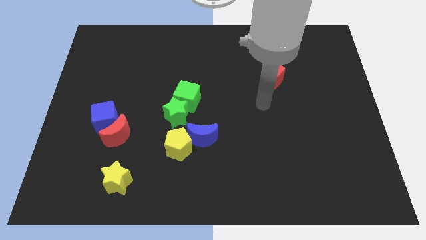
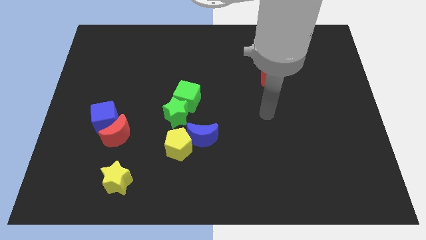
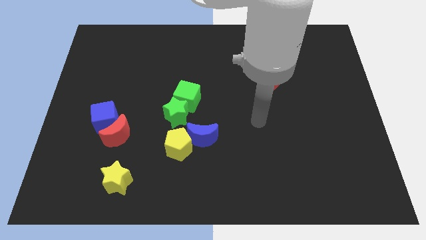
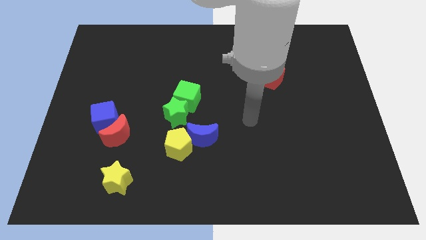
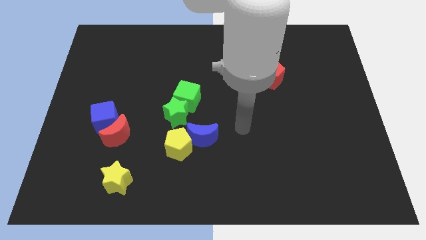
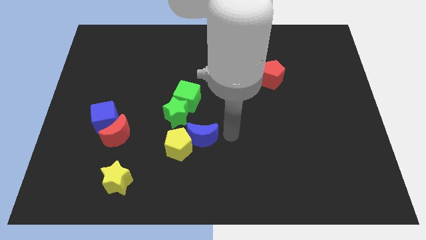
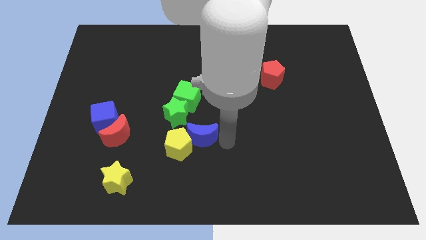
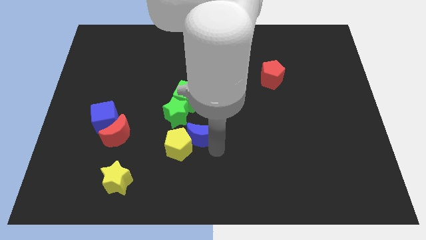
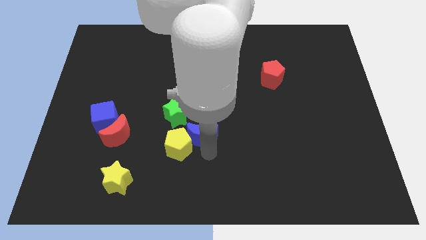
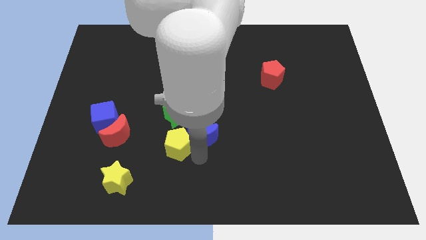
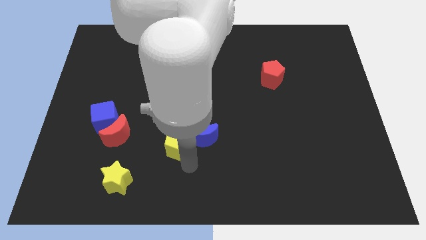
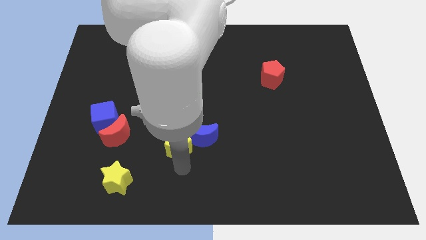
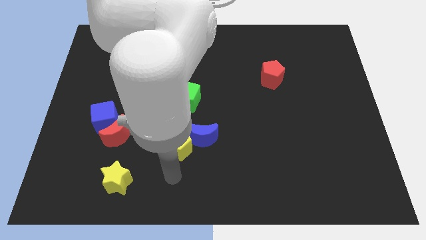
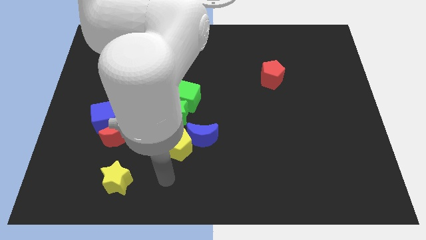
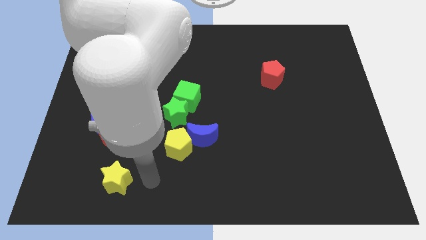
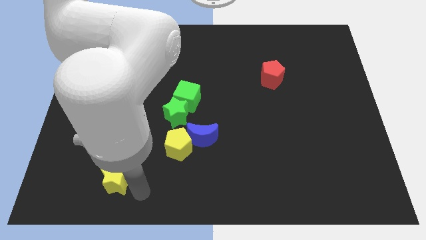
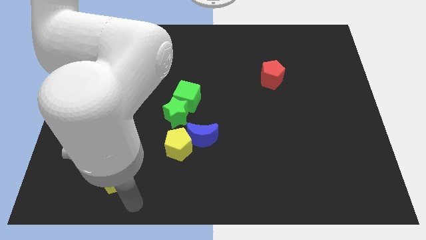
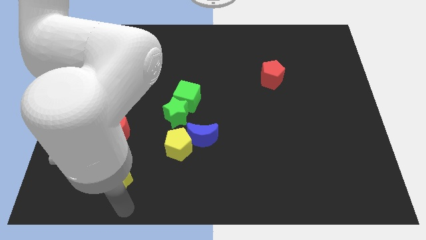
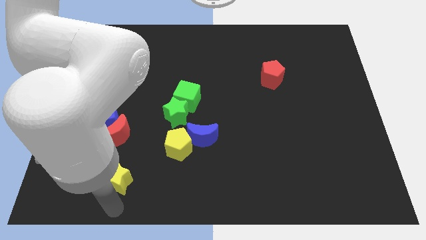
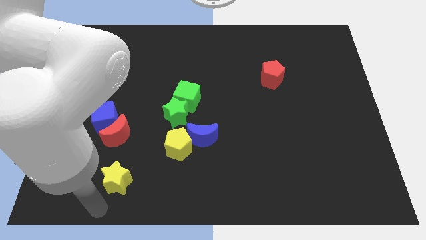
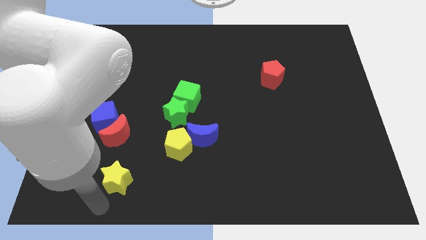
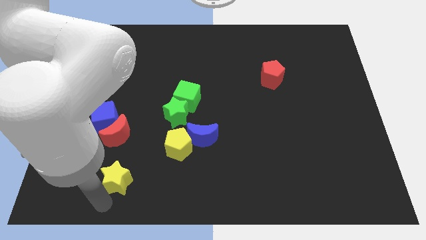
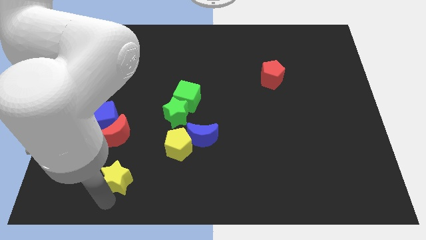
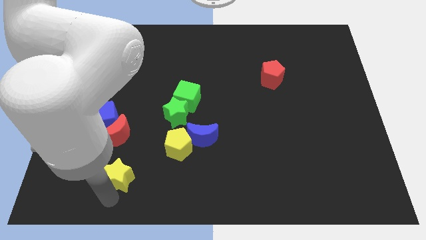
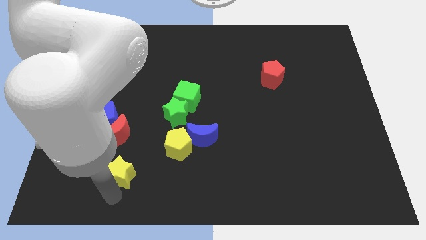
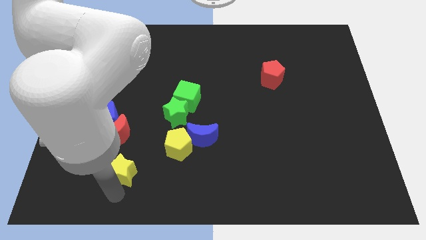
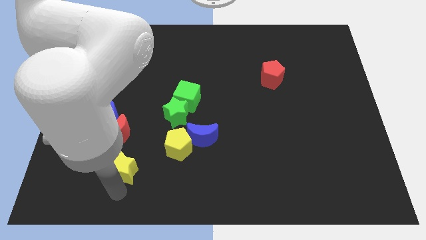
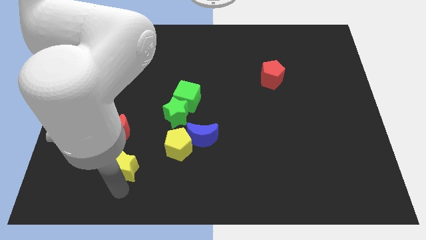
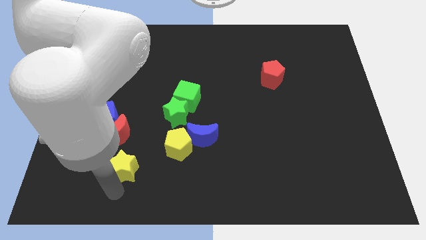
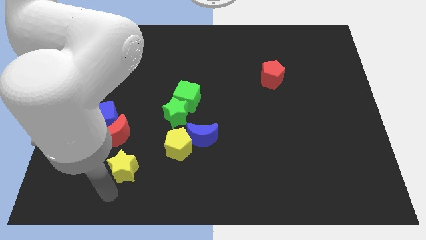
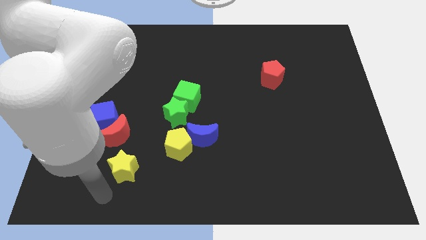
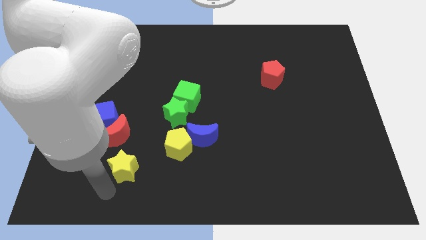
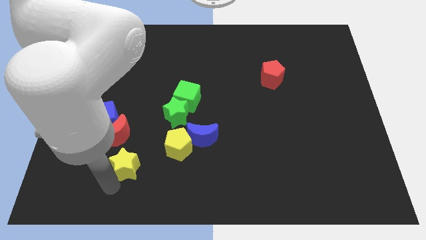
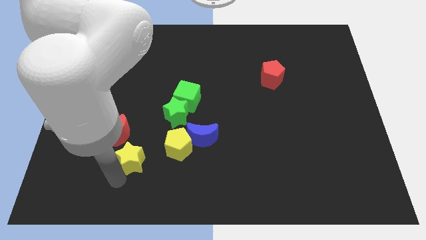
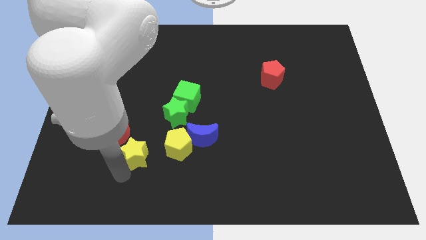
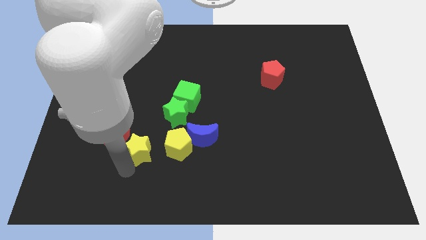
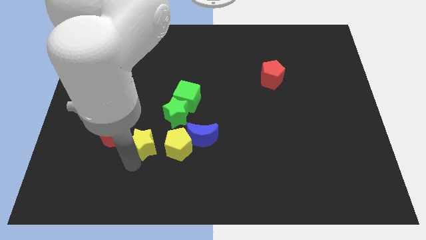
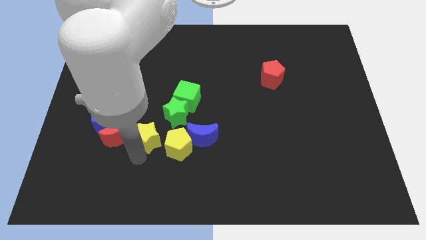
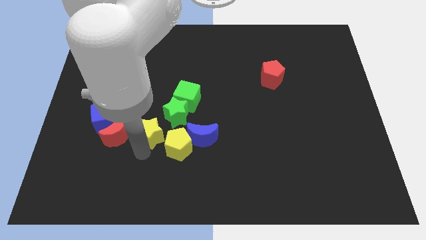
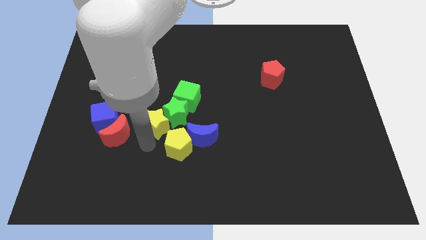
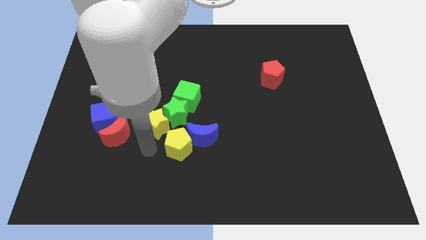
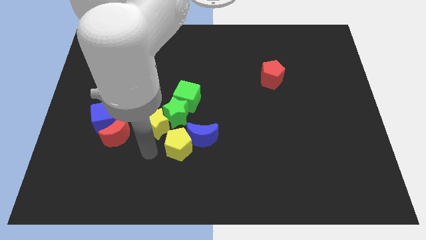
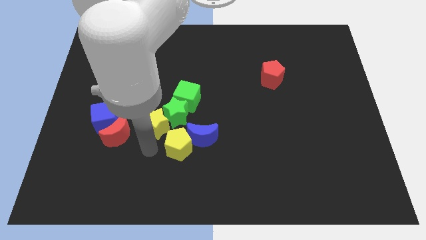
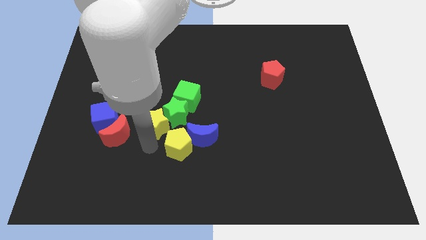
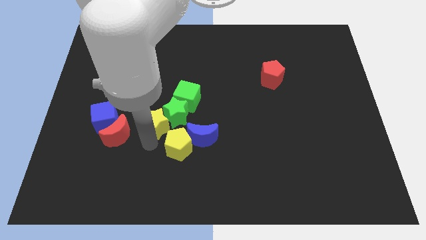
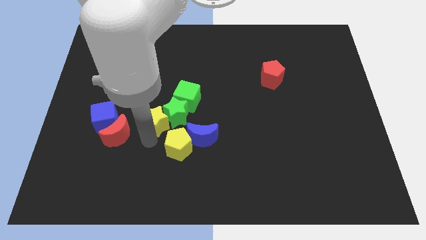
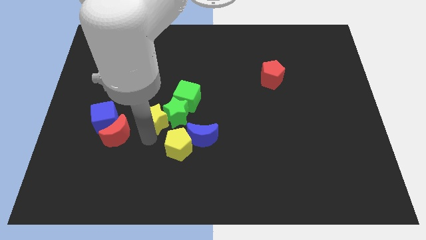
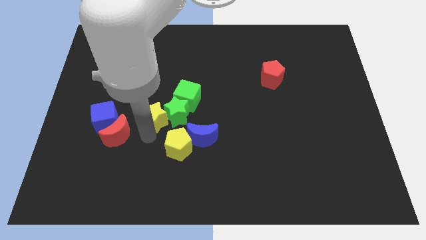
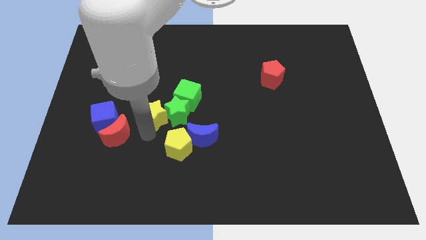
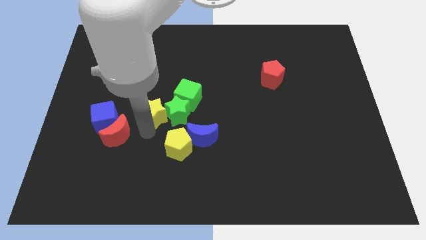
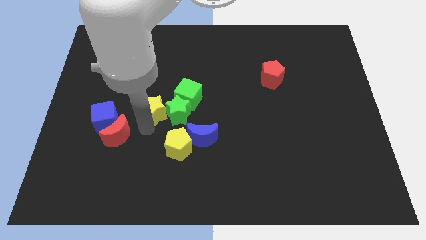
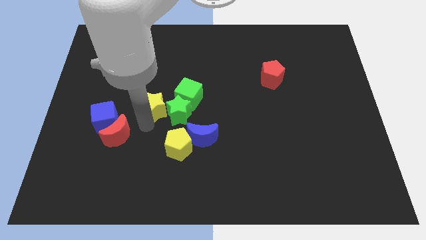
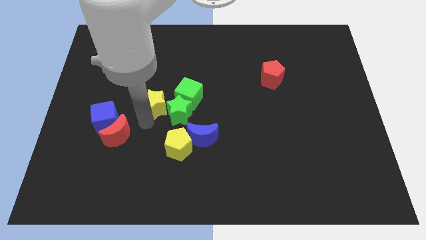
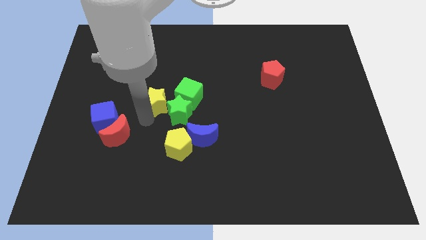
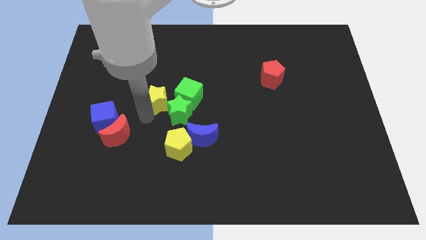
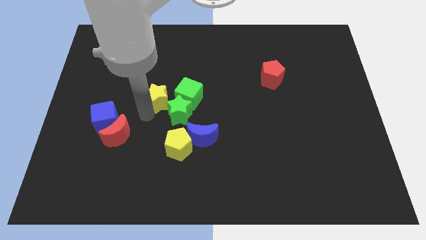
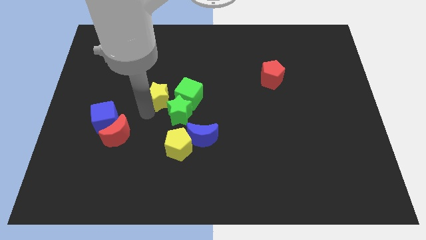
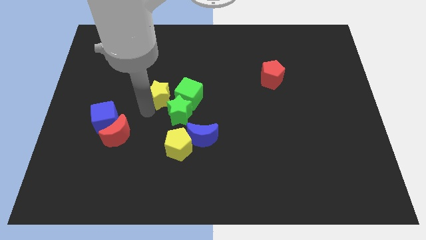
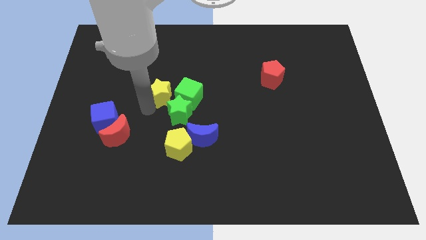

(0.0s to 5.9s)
put the yellow star to the top side of the green star

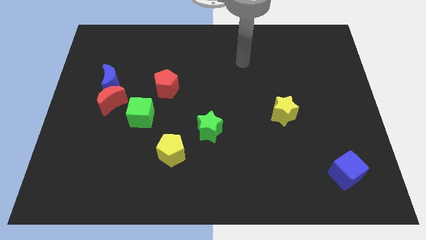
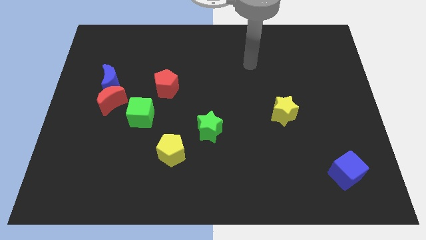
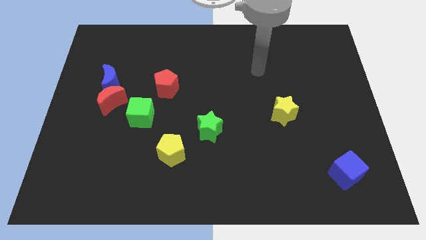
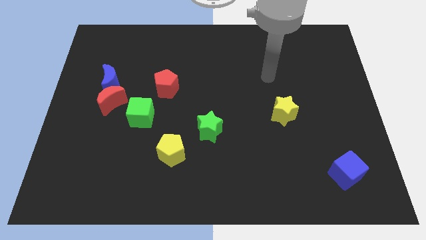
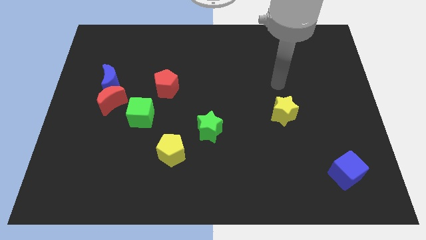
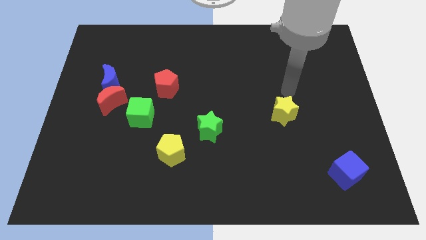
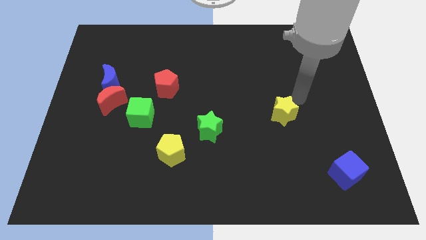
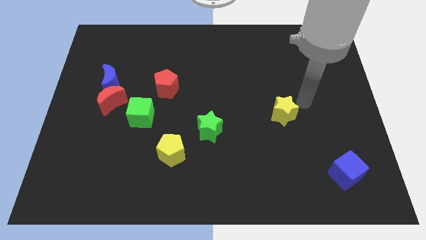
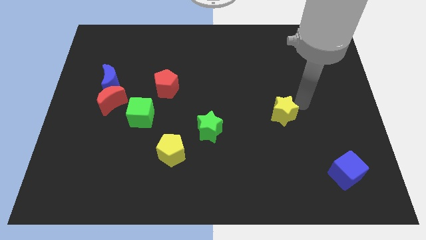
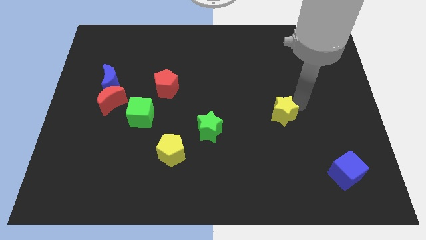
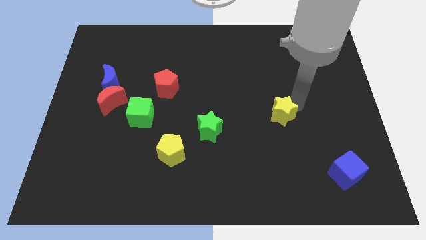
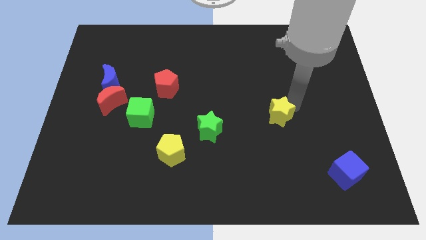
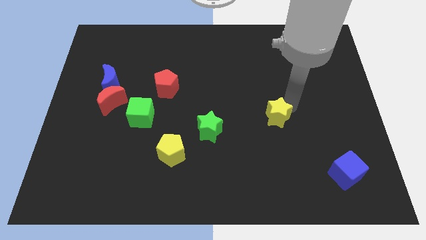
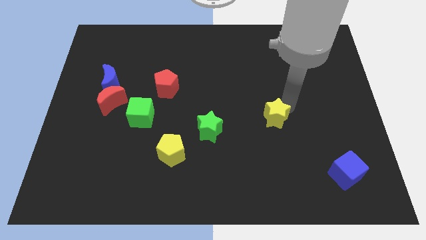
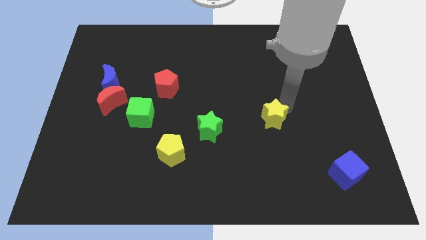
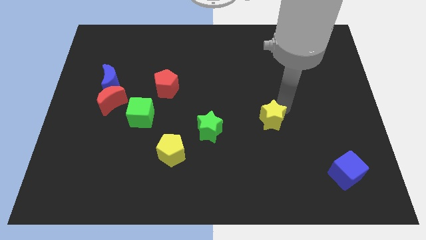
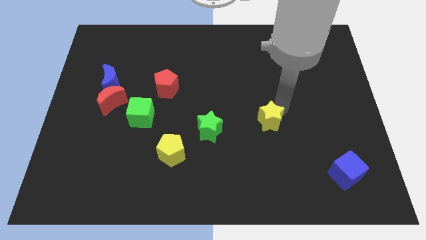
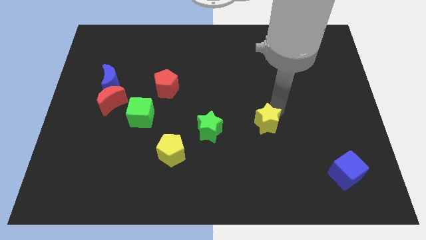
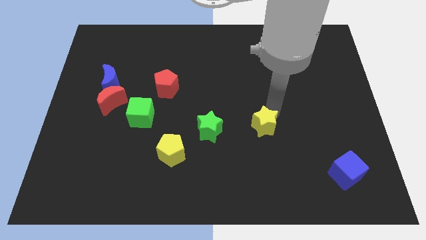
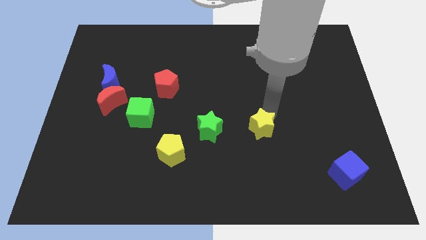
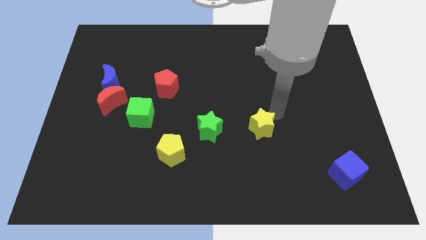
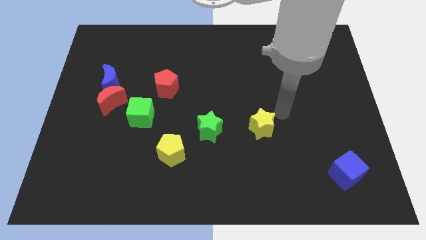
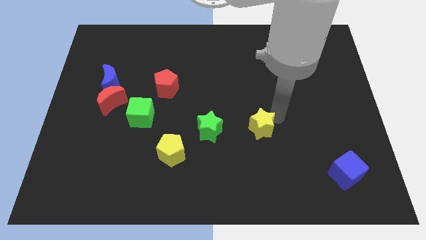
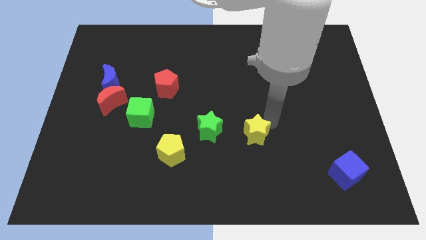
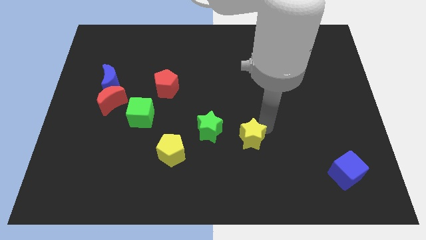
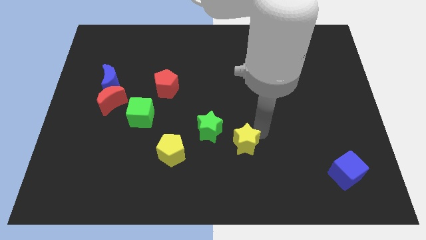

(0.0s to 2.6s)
put the yellow star to the bottom right side of the green star
